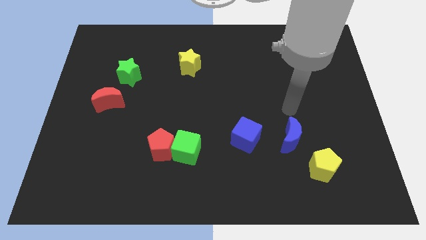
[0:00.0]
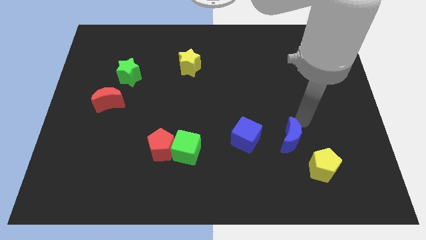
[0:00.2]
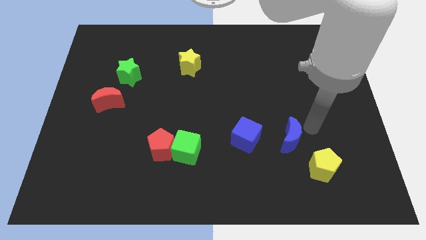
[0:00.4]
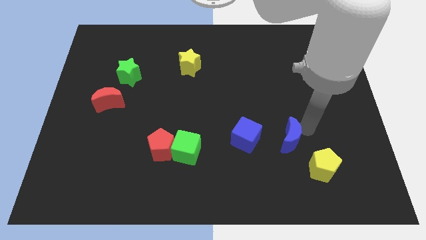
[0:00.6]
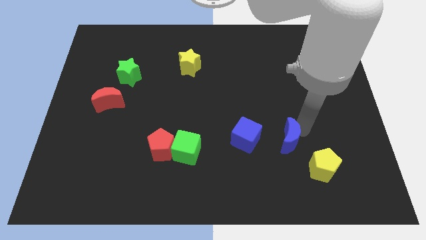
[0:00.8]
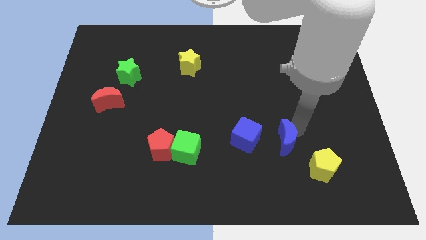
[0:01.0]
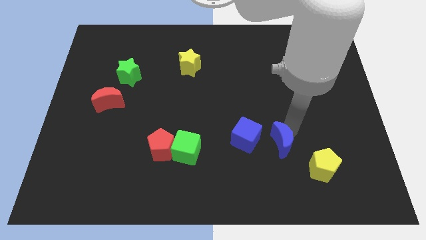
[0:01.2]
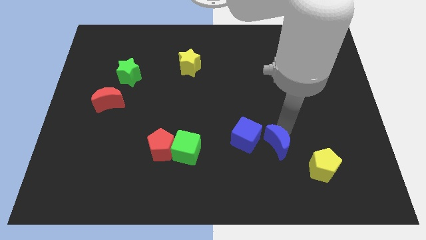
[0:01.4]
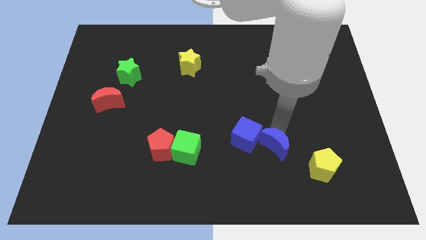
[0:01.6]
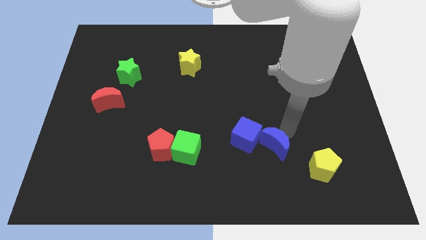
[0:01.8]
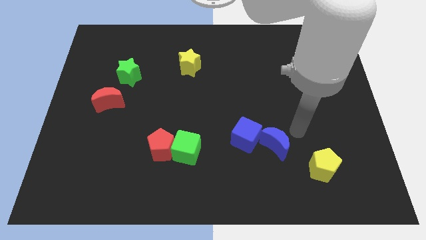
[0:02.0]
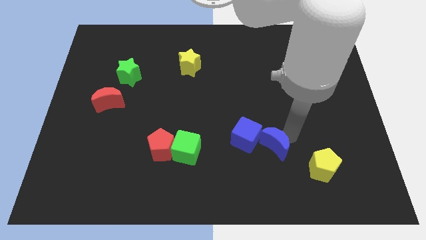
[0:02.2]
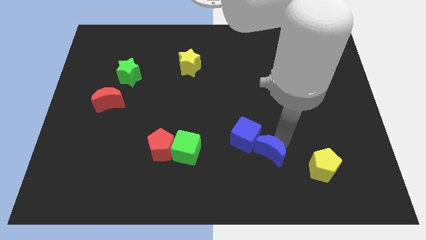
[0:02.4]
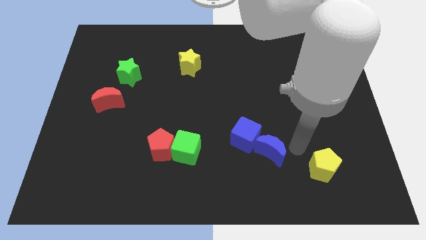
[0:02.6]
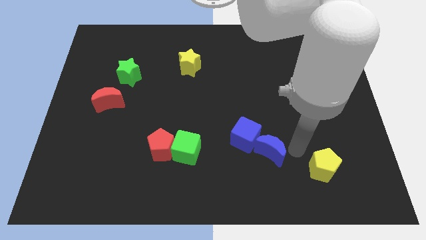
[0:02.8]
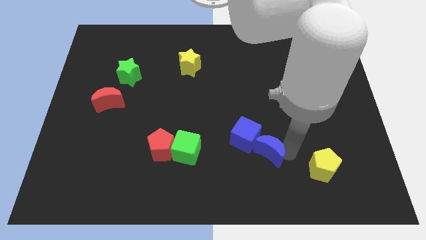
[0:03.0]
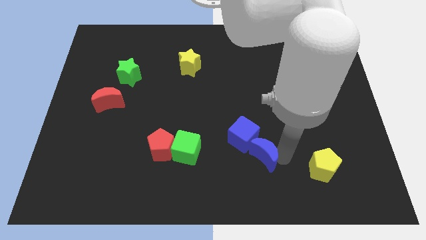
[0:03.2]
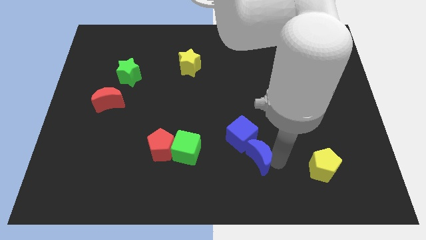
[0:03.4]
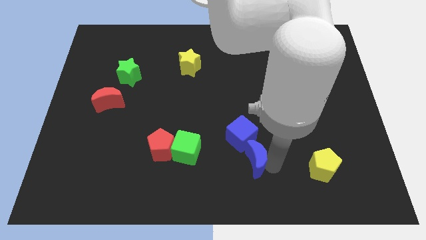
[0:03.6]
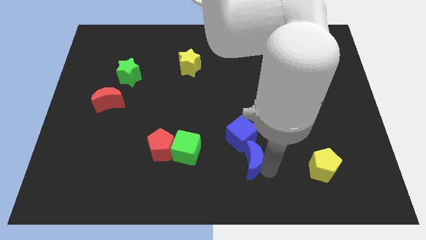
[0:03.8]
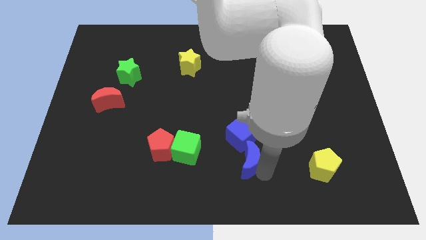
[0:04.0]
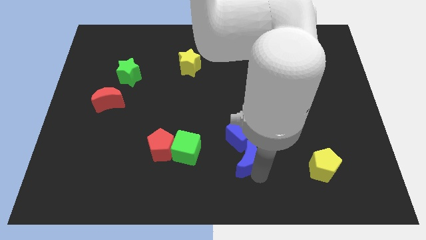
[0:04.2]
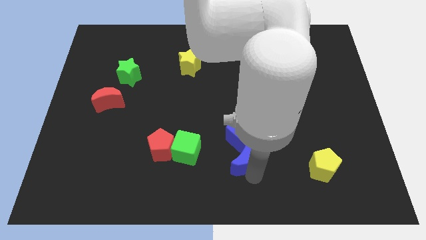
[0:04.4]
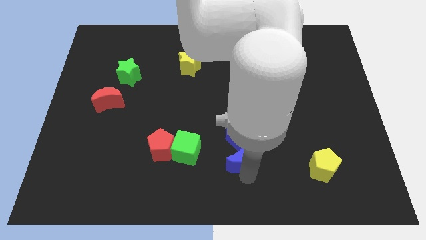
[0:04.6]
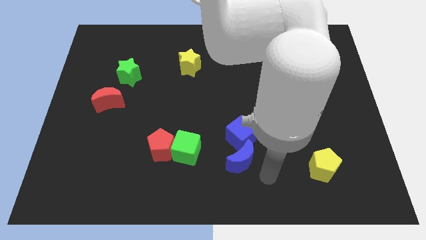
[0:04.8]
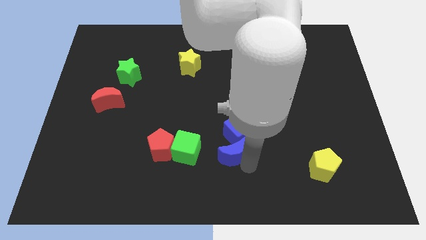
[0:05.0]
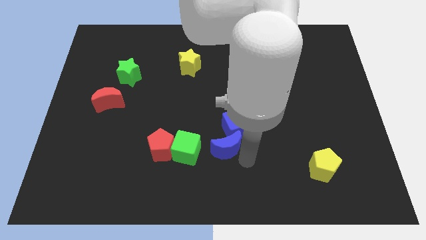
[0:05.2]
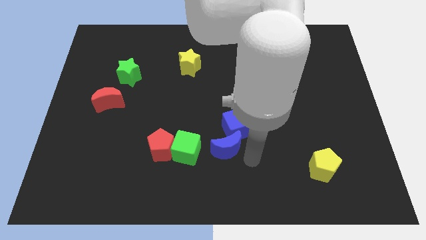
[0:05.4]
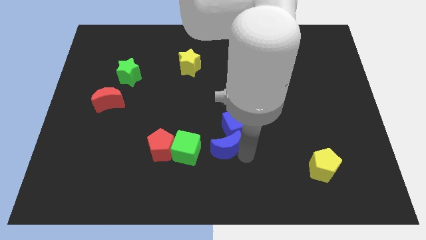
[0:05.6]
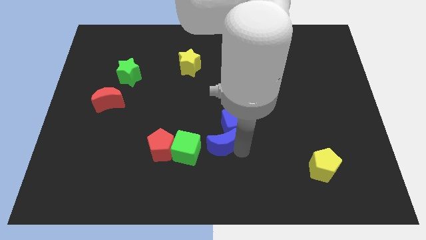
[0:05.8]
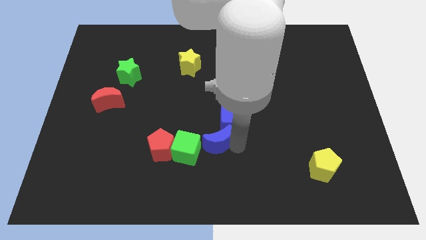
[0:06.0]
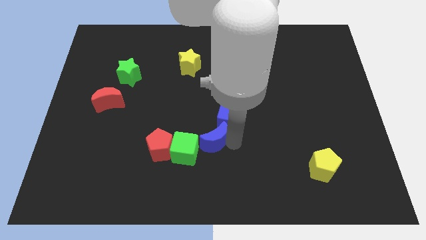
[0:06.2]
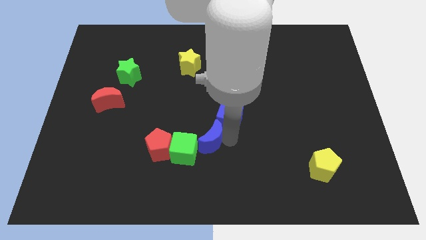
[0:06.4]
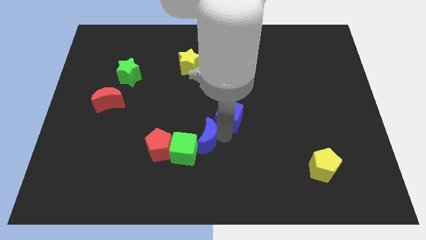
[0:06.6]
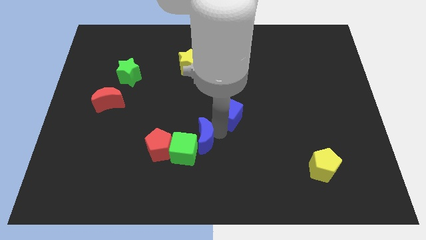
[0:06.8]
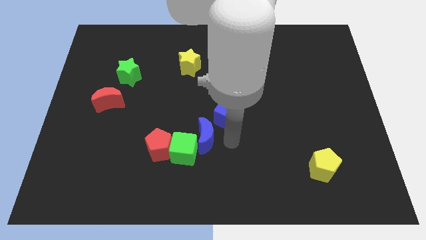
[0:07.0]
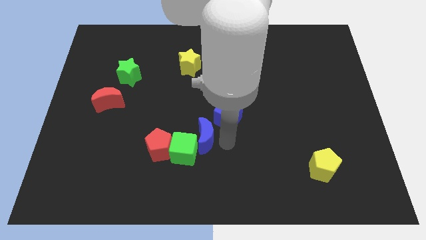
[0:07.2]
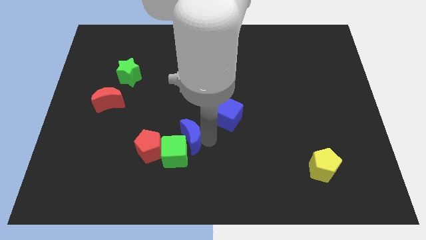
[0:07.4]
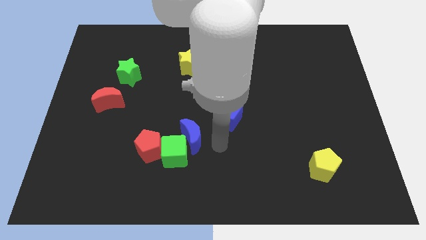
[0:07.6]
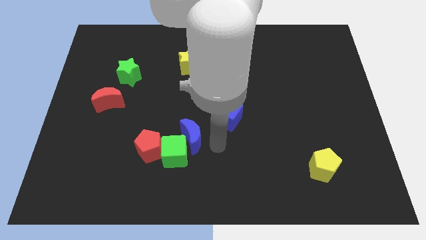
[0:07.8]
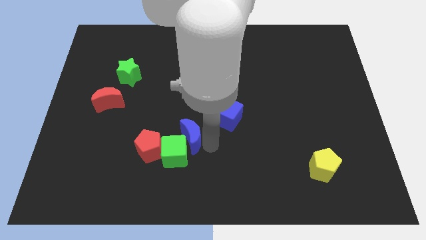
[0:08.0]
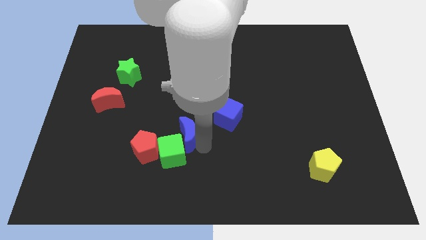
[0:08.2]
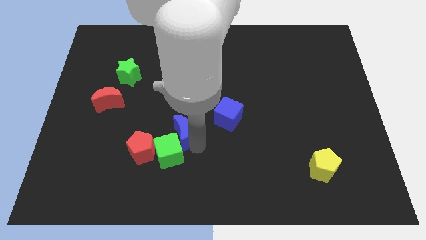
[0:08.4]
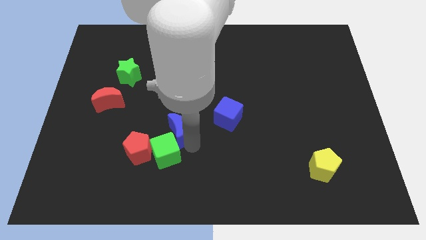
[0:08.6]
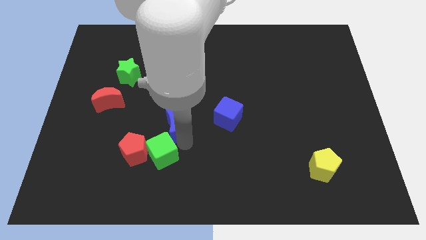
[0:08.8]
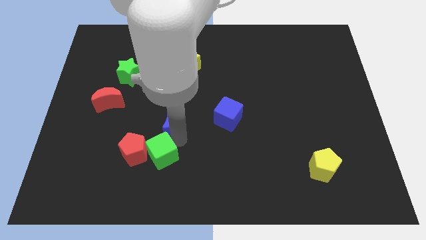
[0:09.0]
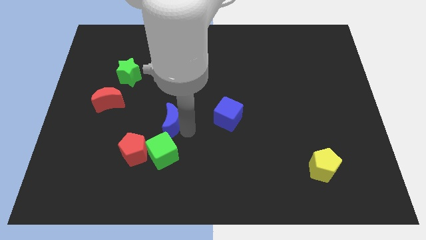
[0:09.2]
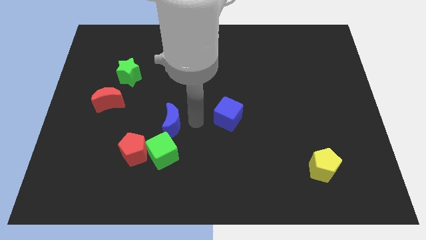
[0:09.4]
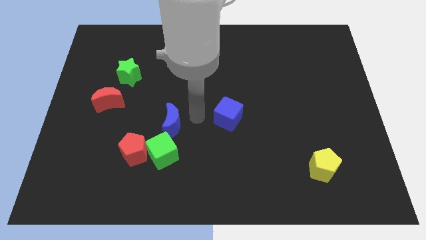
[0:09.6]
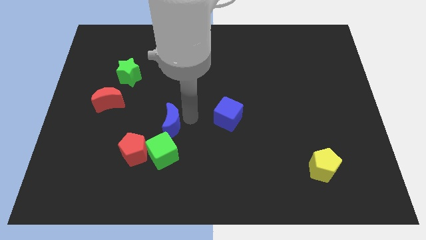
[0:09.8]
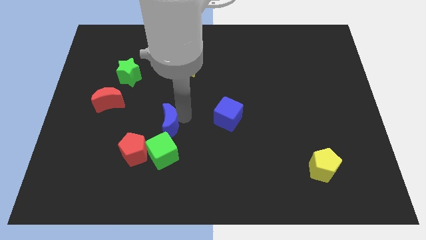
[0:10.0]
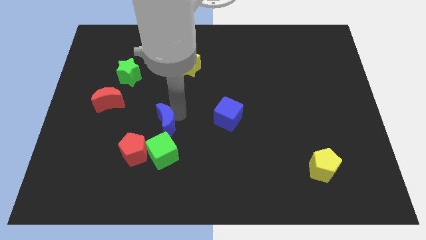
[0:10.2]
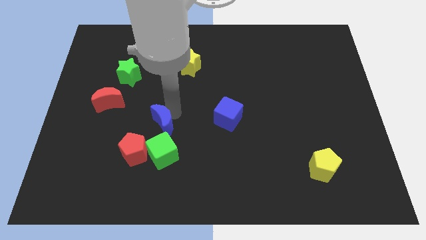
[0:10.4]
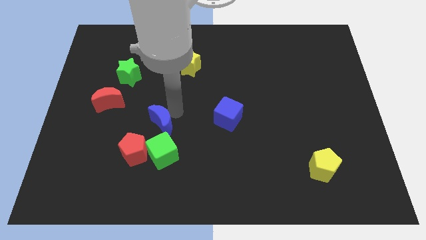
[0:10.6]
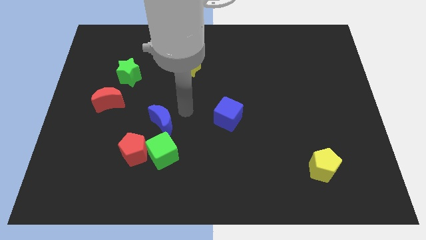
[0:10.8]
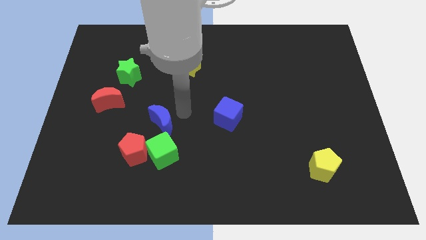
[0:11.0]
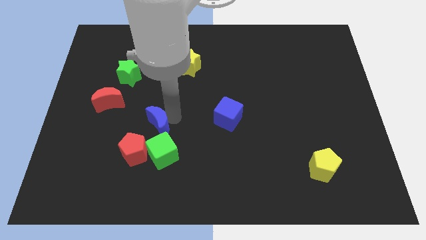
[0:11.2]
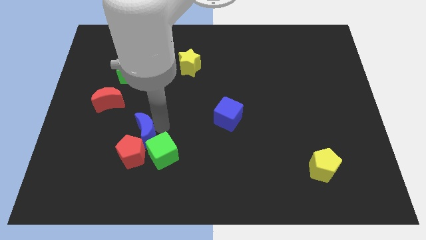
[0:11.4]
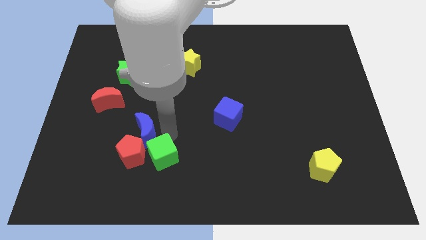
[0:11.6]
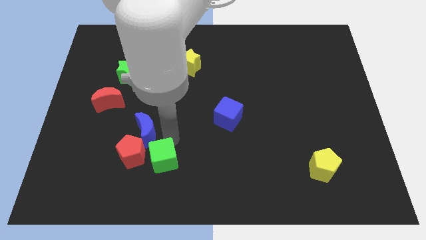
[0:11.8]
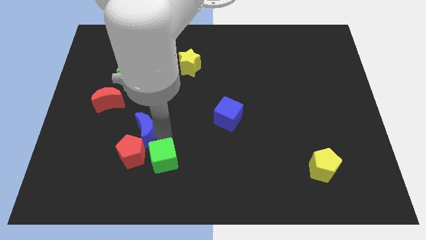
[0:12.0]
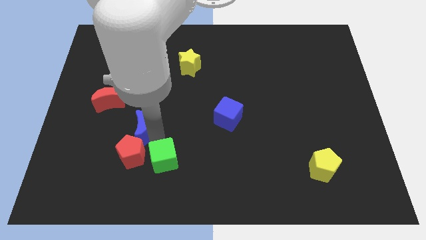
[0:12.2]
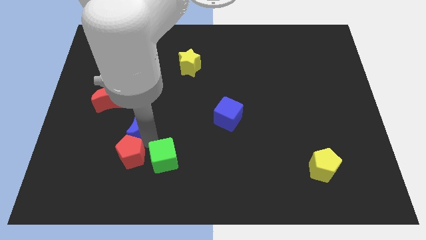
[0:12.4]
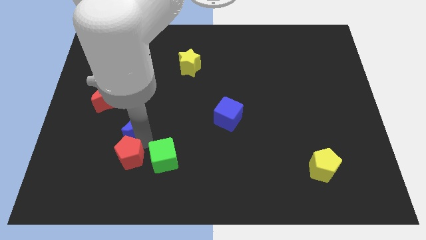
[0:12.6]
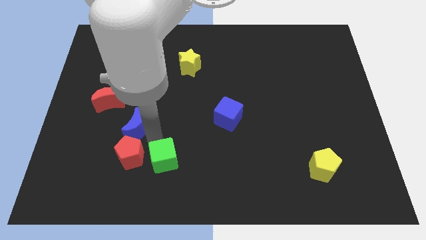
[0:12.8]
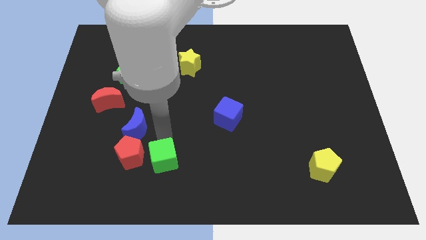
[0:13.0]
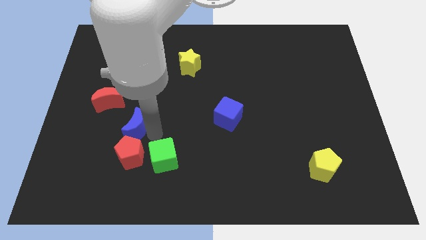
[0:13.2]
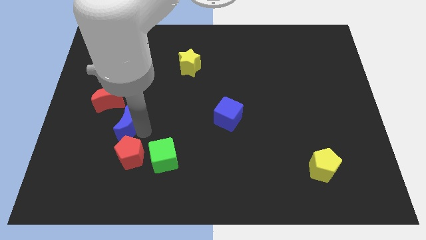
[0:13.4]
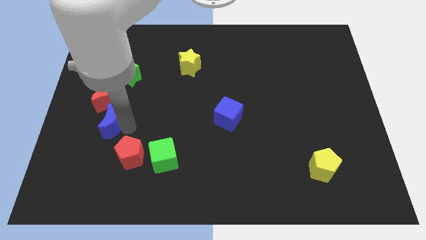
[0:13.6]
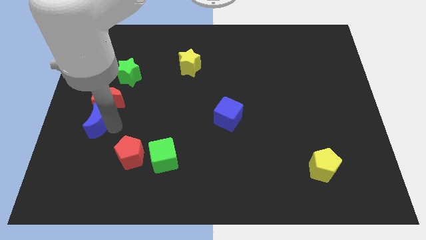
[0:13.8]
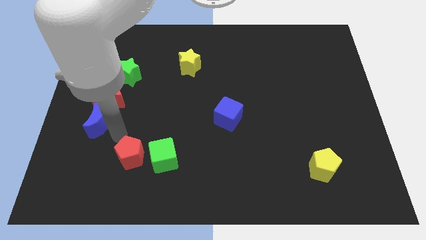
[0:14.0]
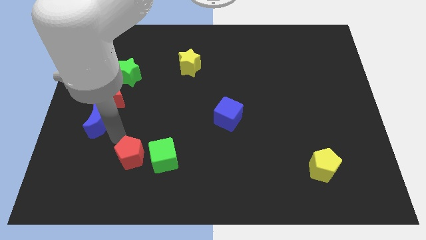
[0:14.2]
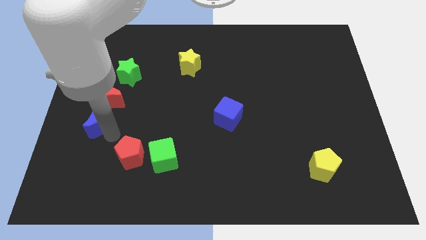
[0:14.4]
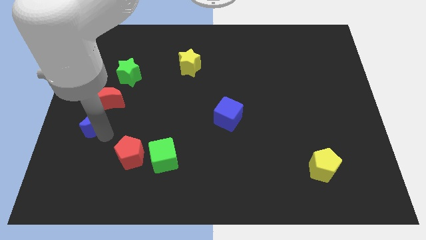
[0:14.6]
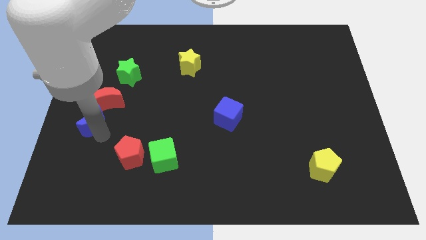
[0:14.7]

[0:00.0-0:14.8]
put the blue moon to the left side of the board
